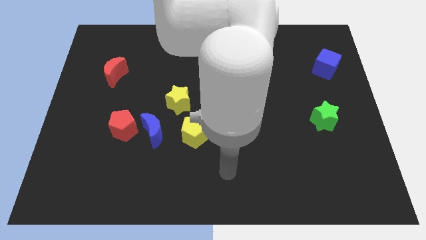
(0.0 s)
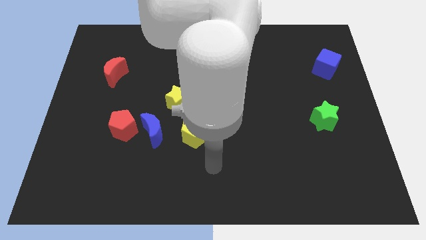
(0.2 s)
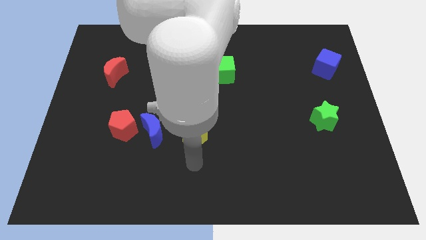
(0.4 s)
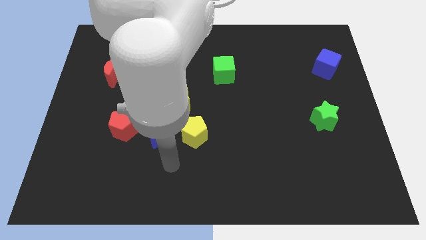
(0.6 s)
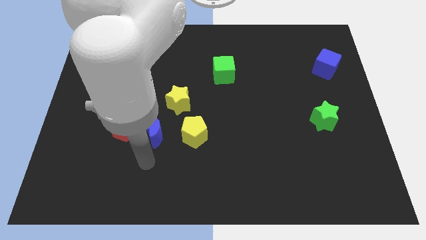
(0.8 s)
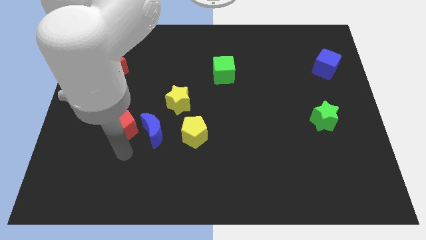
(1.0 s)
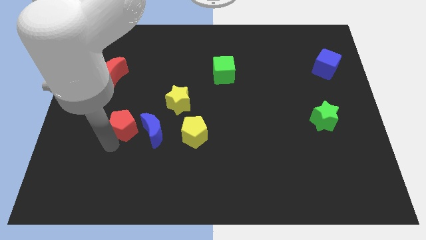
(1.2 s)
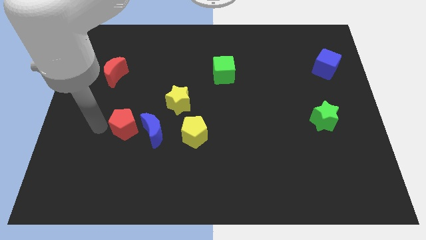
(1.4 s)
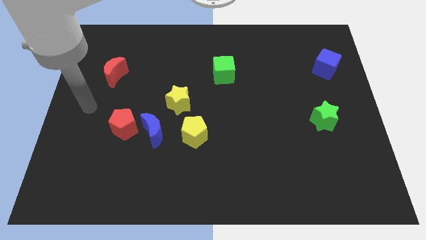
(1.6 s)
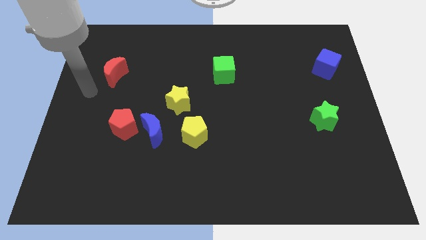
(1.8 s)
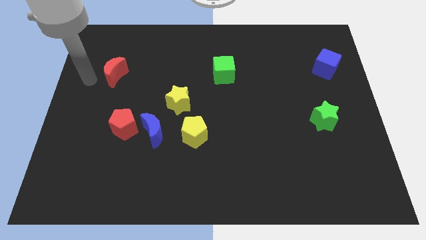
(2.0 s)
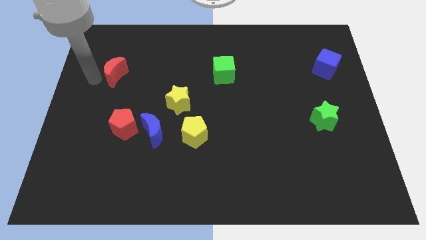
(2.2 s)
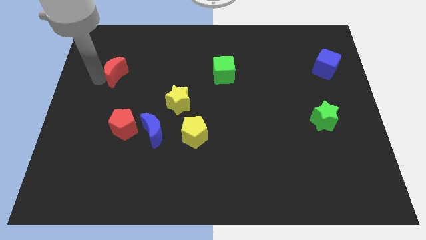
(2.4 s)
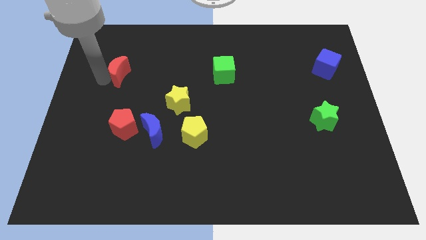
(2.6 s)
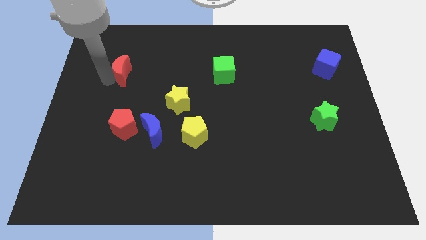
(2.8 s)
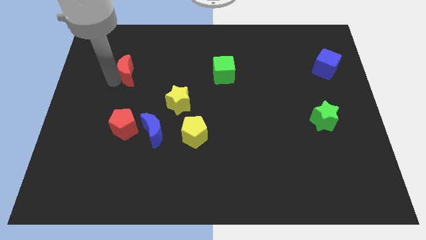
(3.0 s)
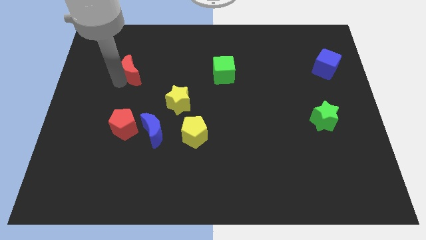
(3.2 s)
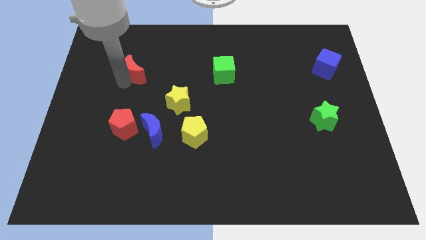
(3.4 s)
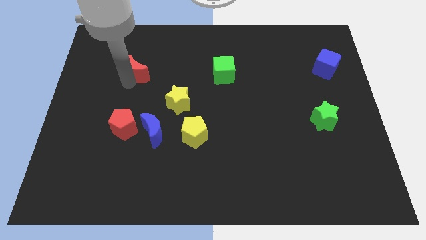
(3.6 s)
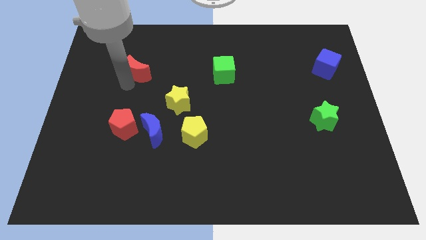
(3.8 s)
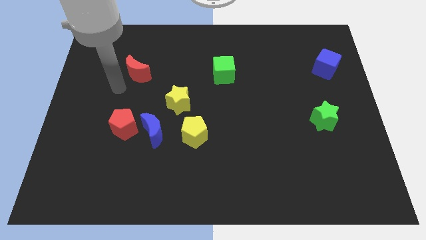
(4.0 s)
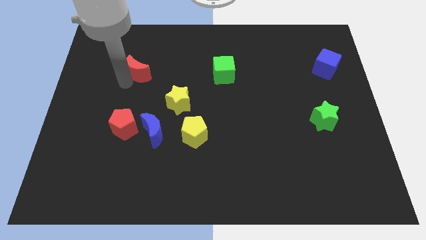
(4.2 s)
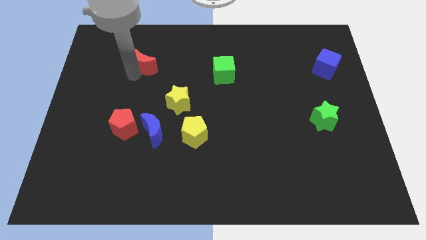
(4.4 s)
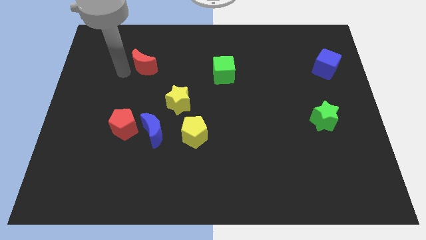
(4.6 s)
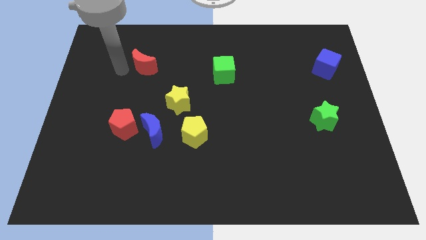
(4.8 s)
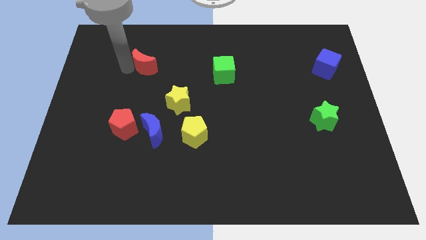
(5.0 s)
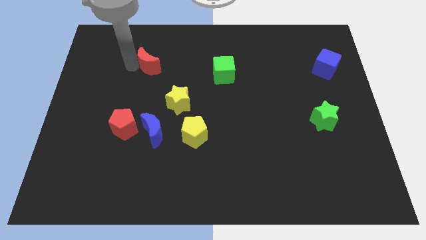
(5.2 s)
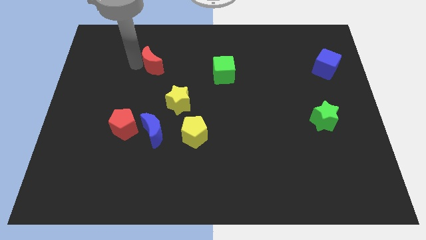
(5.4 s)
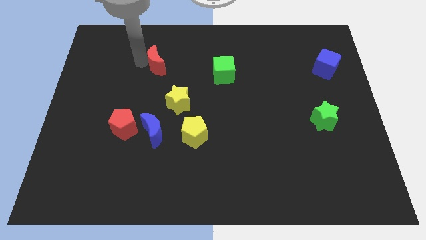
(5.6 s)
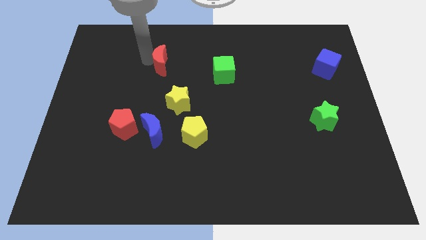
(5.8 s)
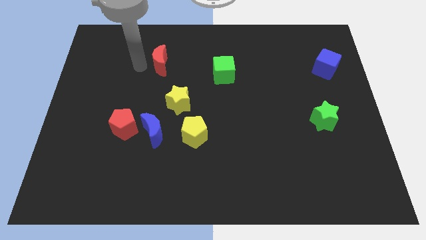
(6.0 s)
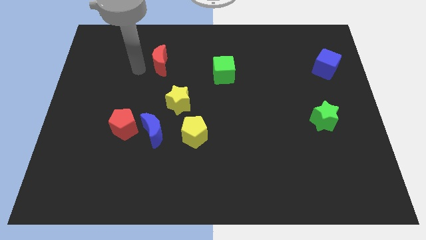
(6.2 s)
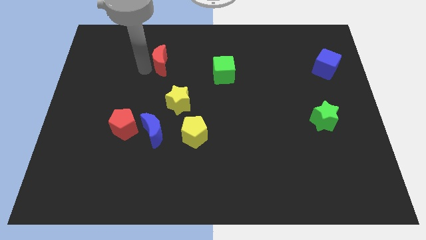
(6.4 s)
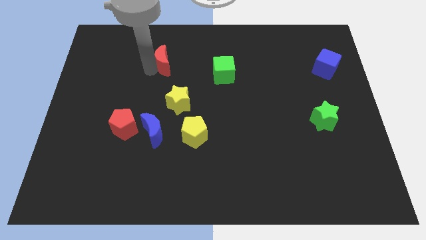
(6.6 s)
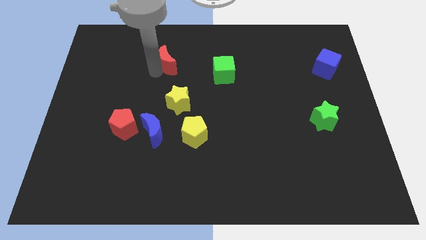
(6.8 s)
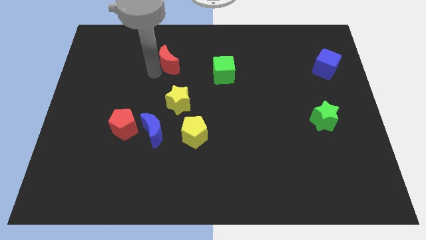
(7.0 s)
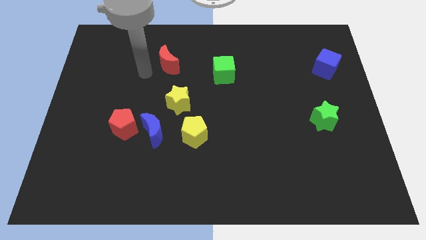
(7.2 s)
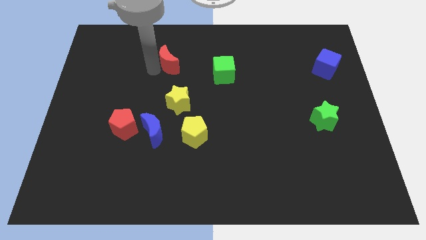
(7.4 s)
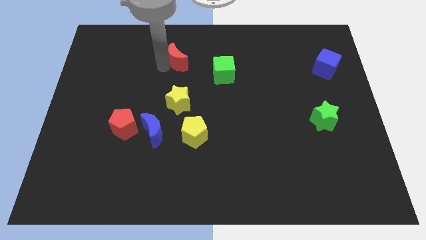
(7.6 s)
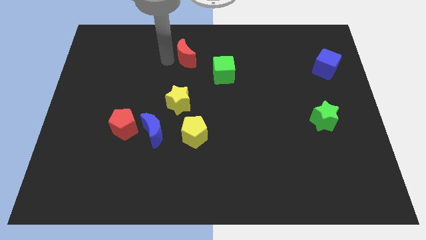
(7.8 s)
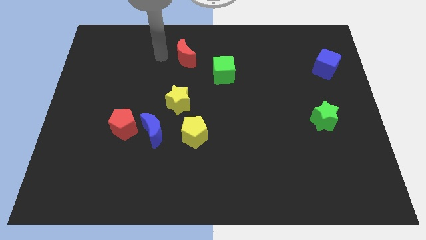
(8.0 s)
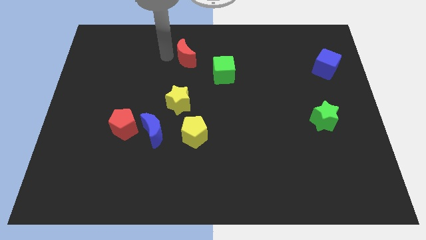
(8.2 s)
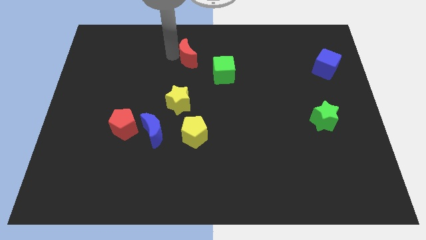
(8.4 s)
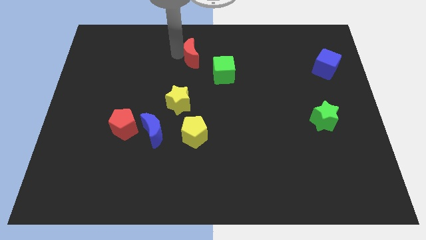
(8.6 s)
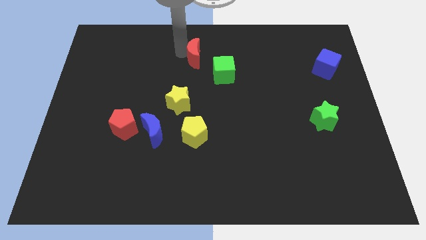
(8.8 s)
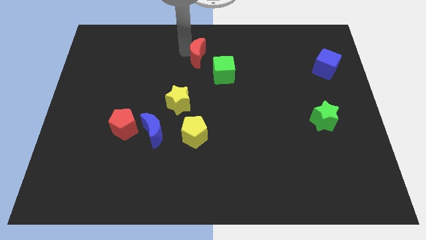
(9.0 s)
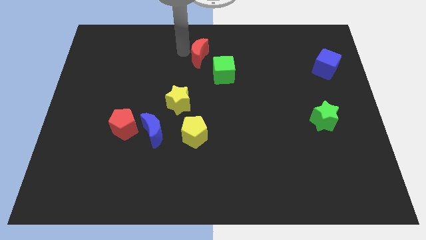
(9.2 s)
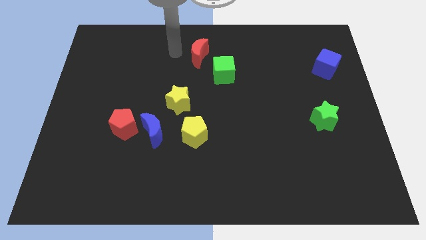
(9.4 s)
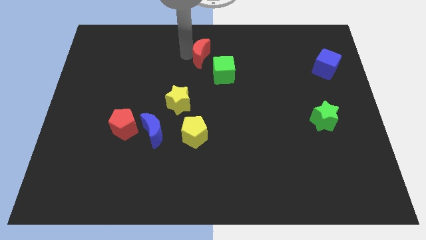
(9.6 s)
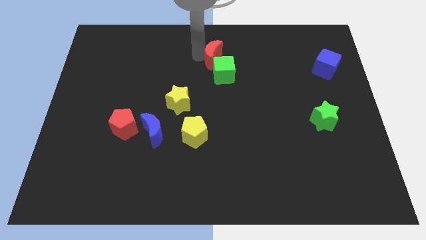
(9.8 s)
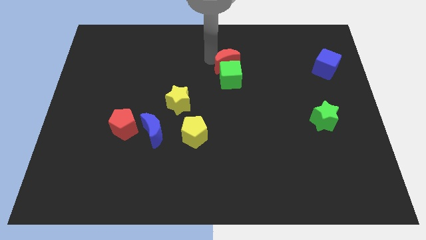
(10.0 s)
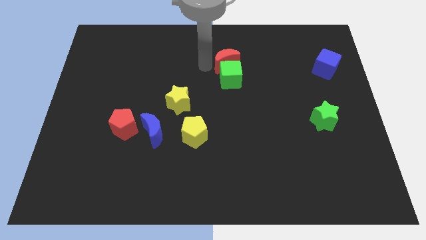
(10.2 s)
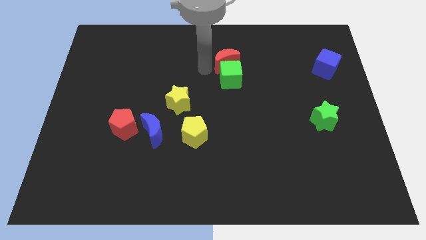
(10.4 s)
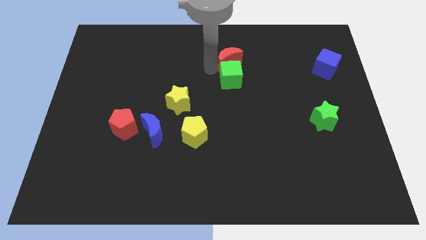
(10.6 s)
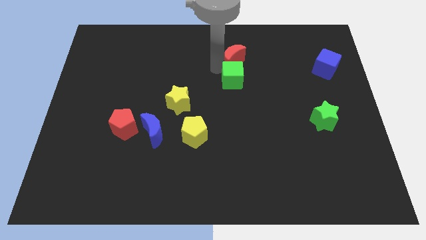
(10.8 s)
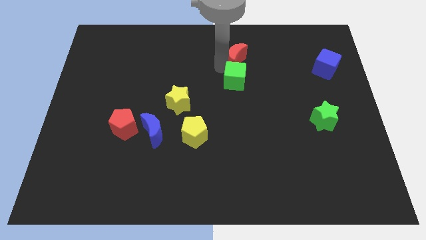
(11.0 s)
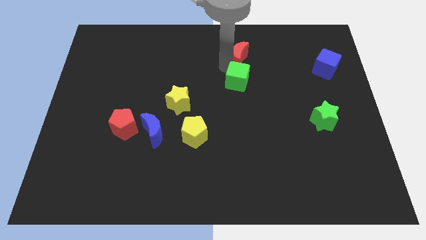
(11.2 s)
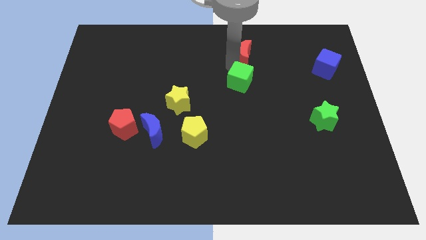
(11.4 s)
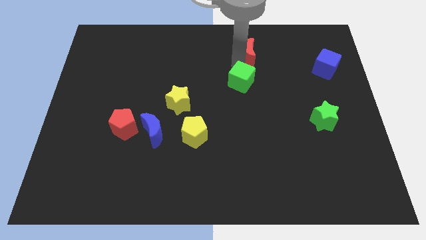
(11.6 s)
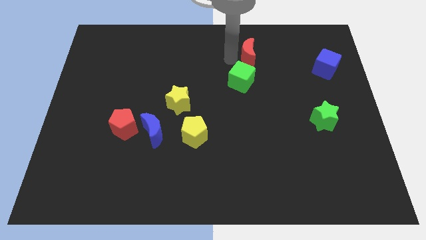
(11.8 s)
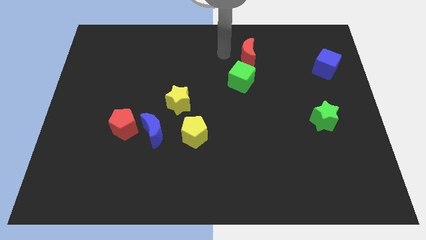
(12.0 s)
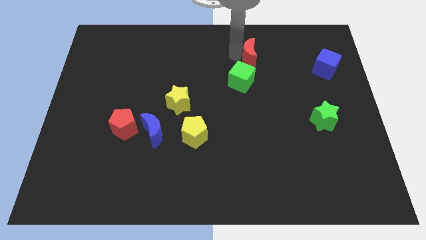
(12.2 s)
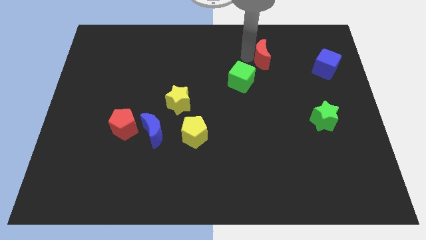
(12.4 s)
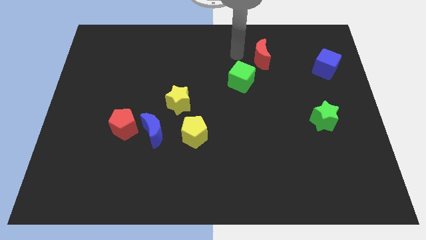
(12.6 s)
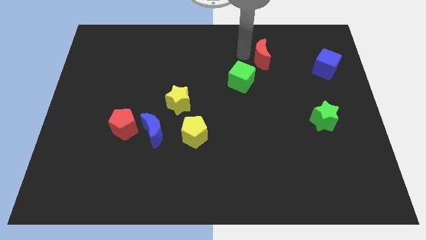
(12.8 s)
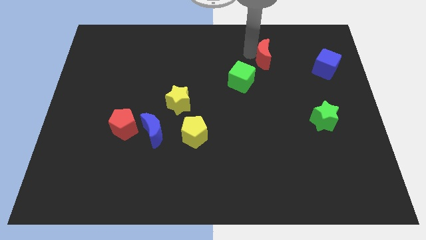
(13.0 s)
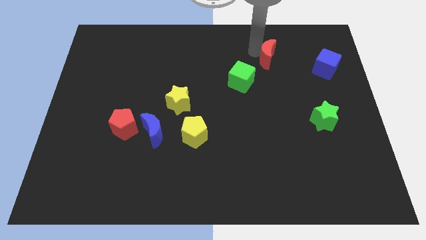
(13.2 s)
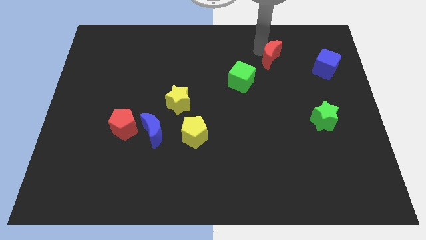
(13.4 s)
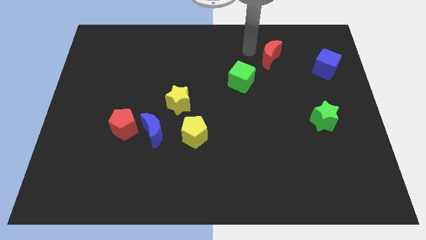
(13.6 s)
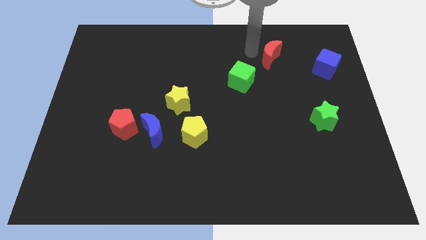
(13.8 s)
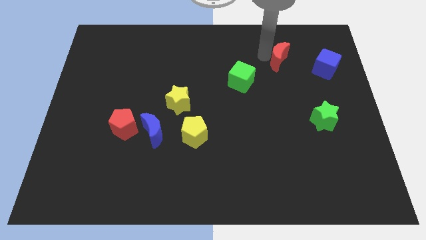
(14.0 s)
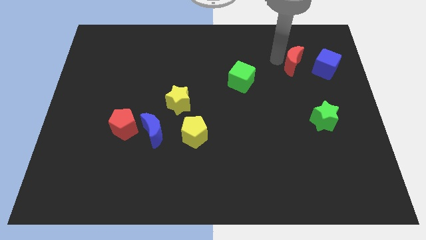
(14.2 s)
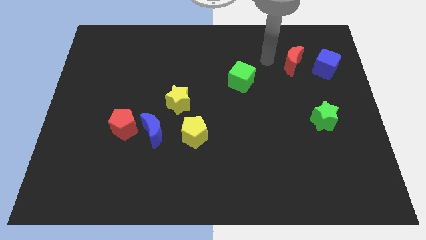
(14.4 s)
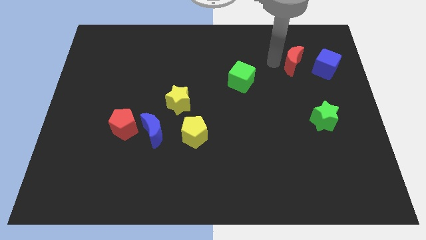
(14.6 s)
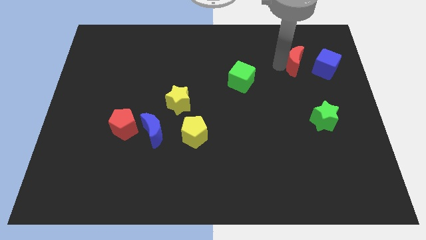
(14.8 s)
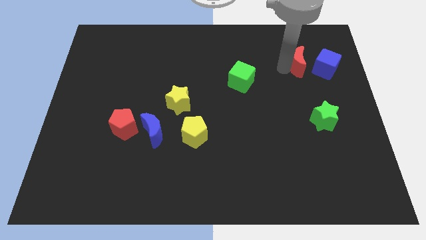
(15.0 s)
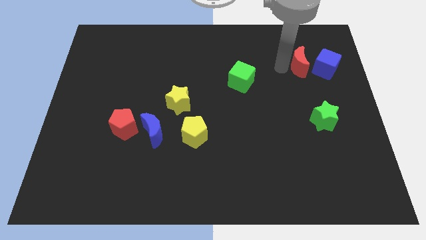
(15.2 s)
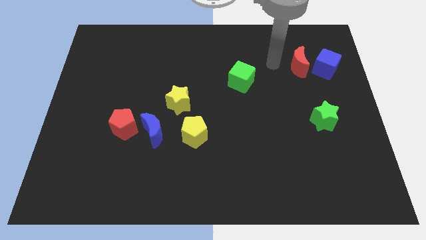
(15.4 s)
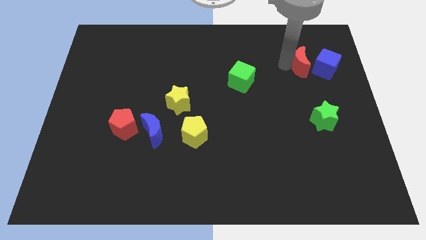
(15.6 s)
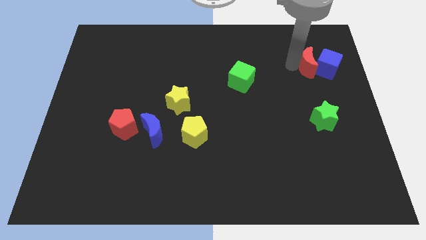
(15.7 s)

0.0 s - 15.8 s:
put the red moon next to the blue cube
